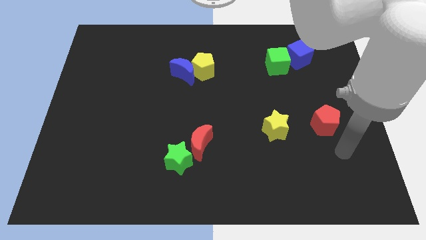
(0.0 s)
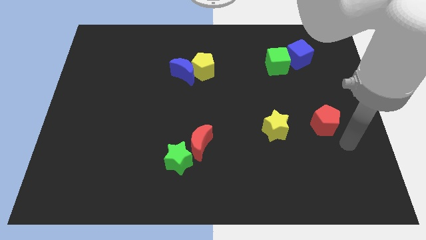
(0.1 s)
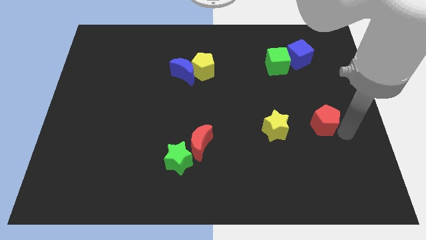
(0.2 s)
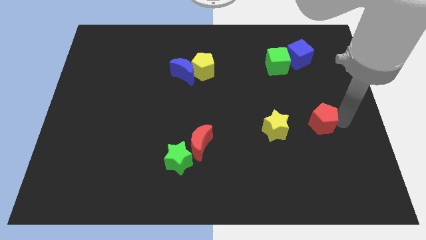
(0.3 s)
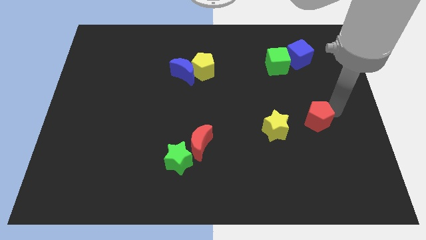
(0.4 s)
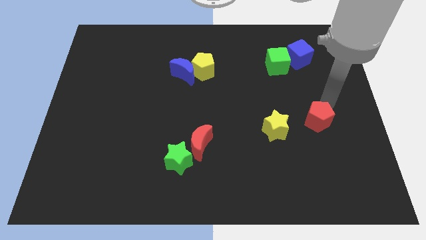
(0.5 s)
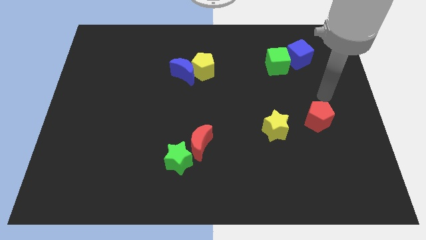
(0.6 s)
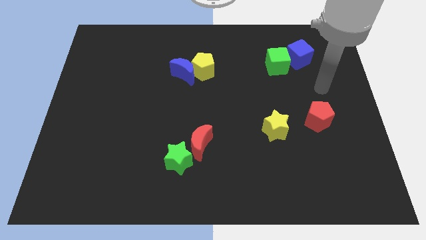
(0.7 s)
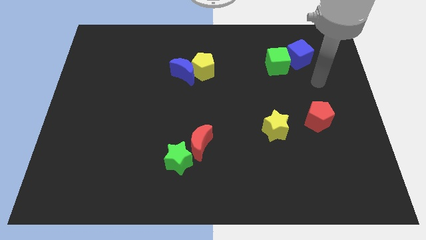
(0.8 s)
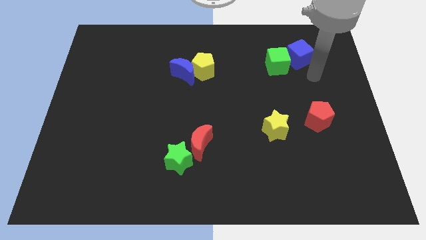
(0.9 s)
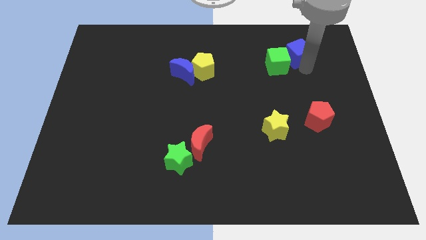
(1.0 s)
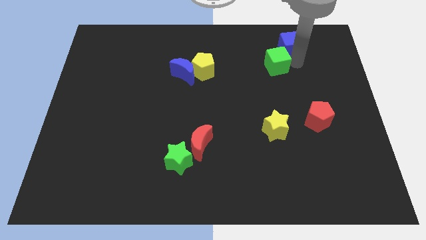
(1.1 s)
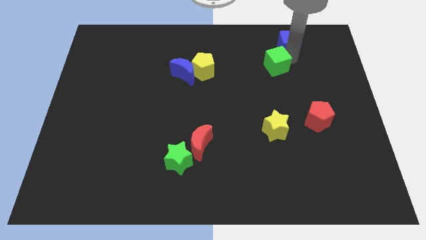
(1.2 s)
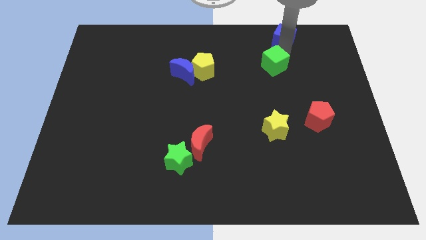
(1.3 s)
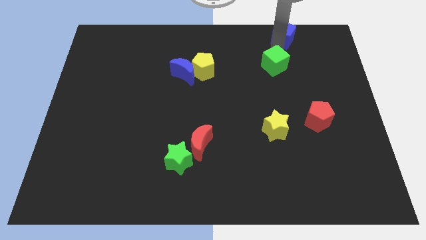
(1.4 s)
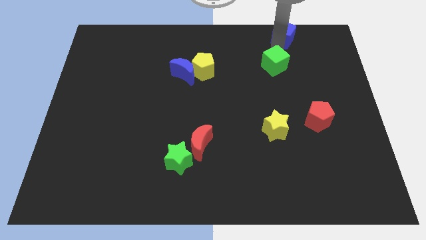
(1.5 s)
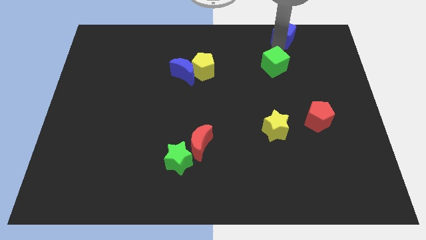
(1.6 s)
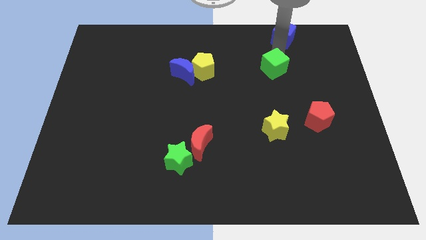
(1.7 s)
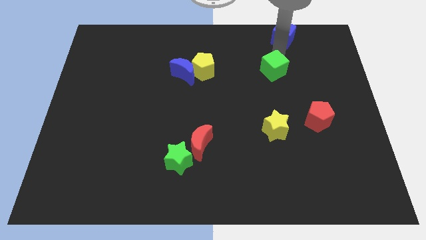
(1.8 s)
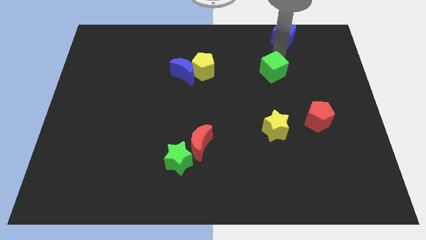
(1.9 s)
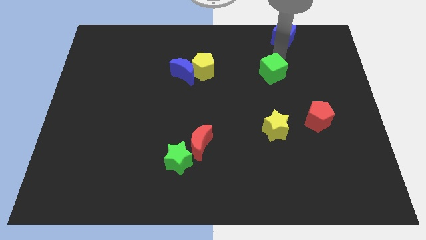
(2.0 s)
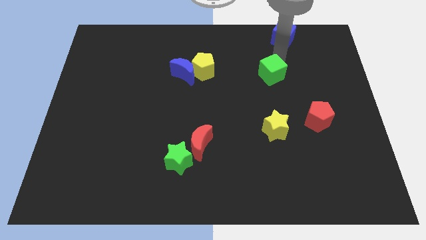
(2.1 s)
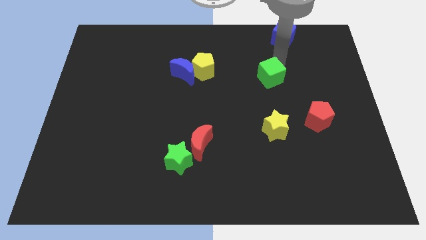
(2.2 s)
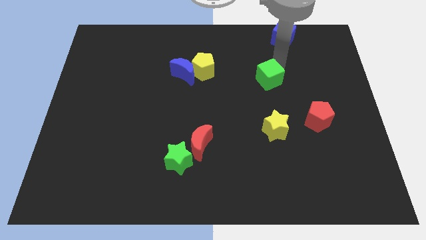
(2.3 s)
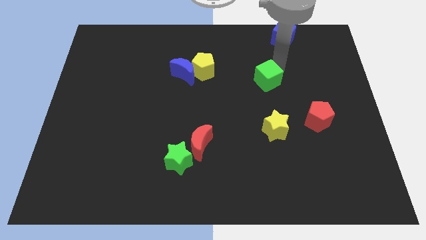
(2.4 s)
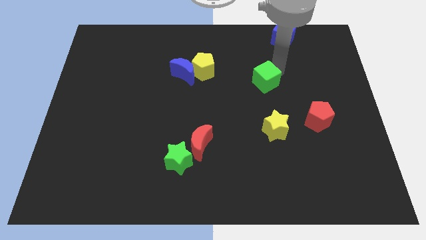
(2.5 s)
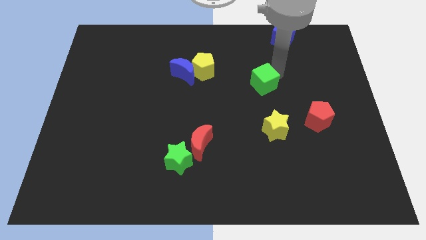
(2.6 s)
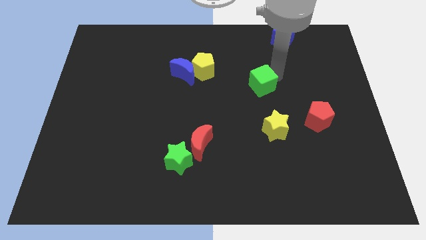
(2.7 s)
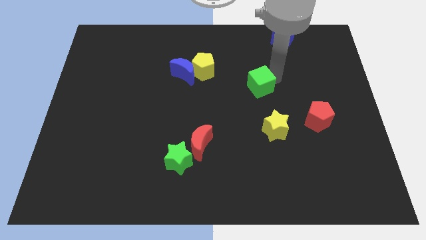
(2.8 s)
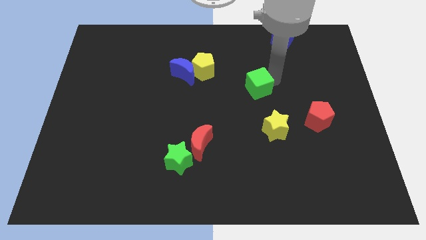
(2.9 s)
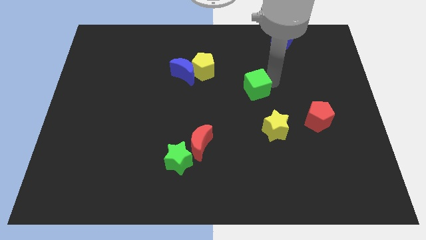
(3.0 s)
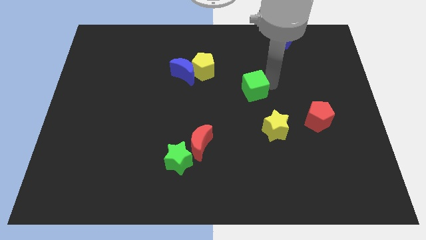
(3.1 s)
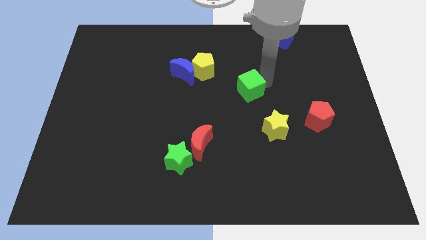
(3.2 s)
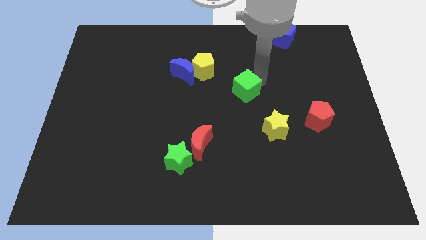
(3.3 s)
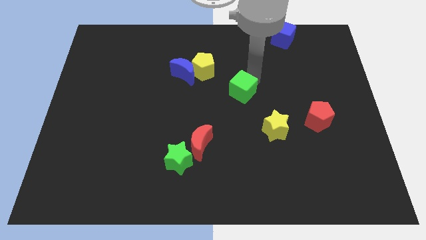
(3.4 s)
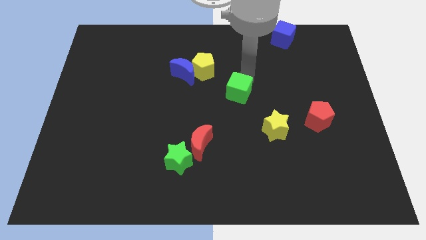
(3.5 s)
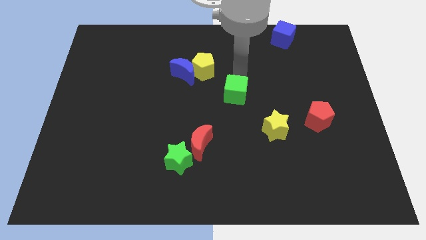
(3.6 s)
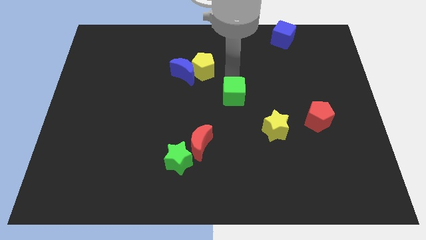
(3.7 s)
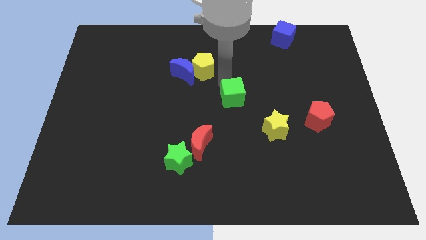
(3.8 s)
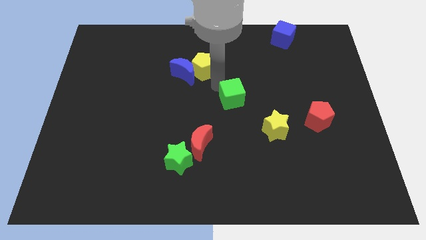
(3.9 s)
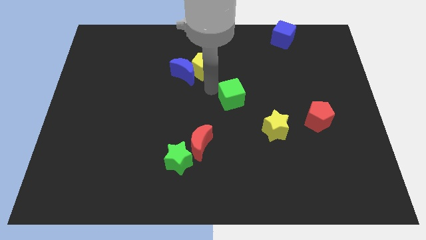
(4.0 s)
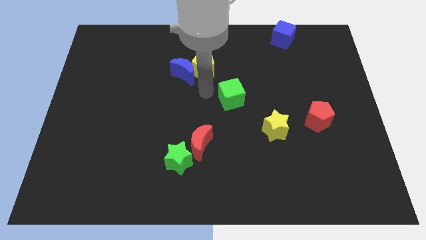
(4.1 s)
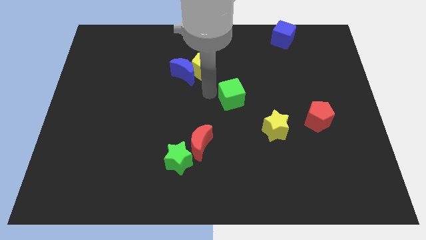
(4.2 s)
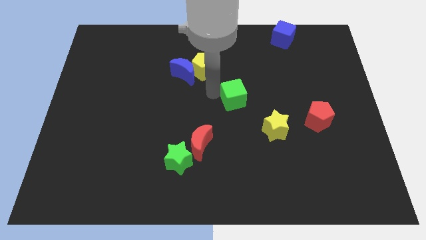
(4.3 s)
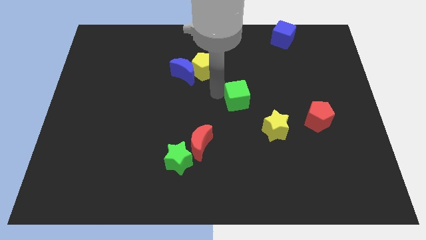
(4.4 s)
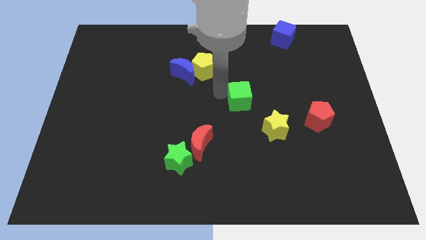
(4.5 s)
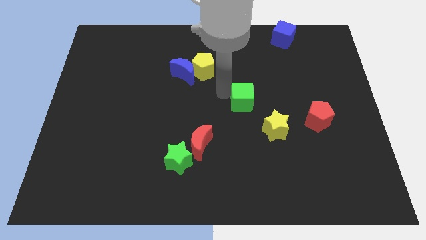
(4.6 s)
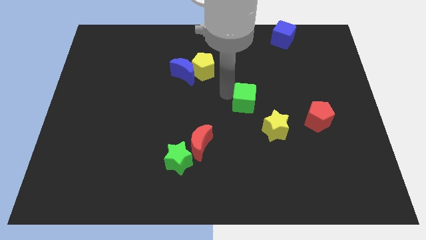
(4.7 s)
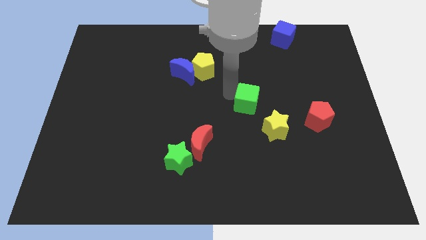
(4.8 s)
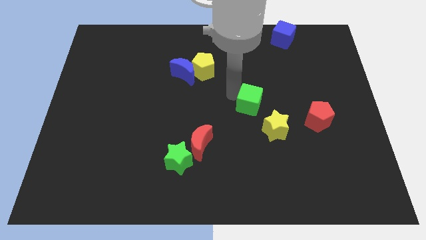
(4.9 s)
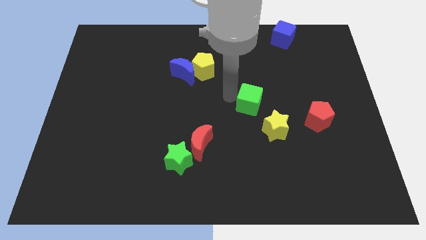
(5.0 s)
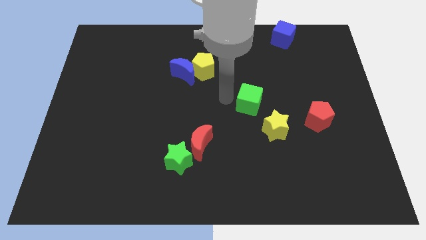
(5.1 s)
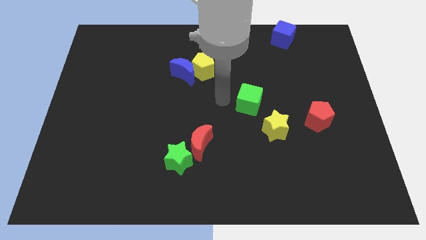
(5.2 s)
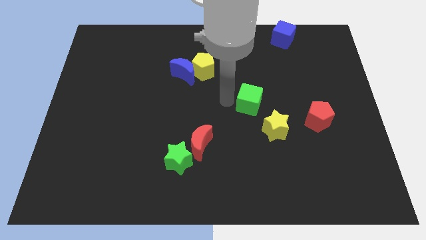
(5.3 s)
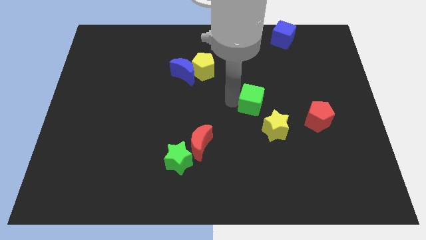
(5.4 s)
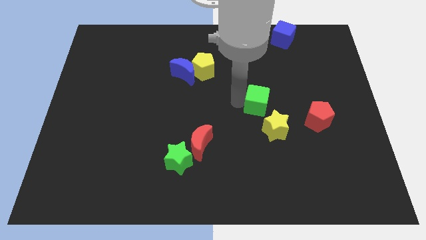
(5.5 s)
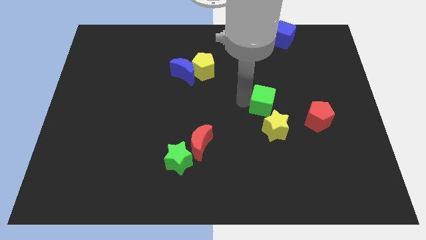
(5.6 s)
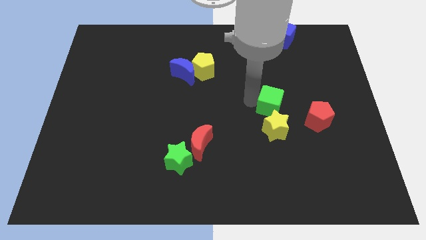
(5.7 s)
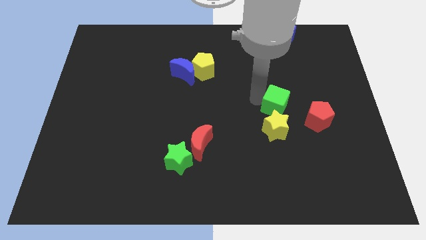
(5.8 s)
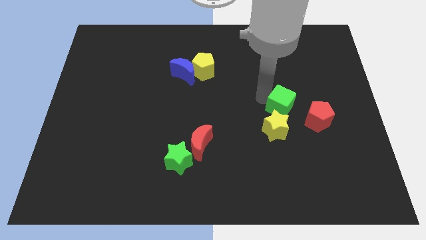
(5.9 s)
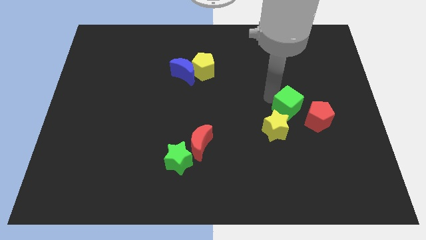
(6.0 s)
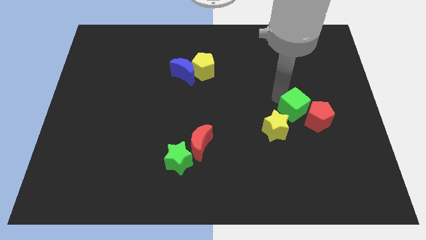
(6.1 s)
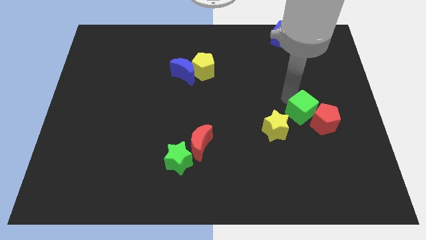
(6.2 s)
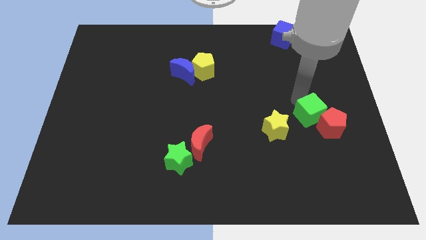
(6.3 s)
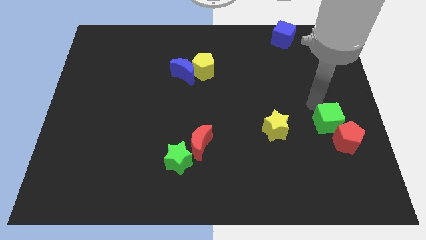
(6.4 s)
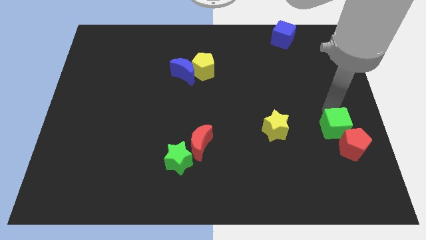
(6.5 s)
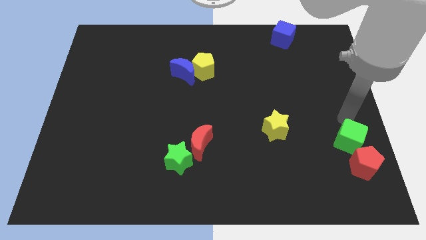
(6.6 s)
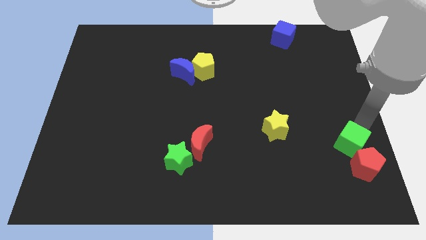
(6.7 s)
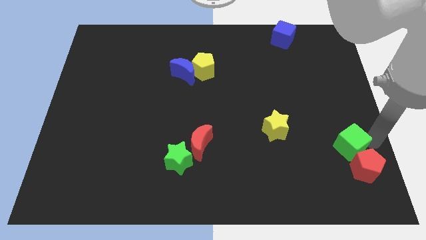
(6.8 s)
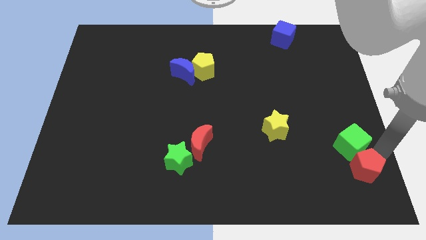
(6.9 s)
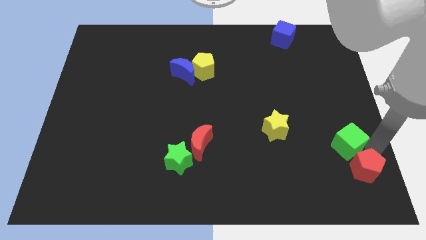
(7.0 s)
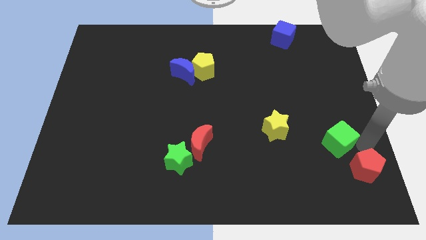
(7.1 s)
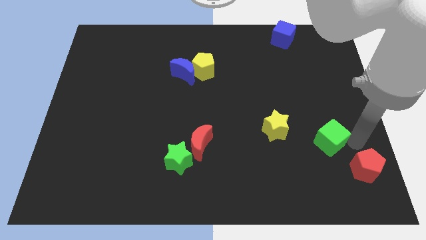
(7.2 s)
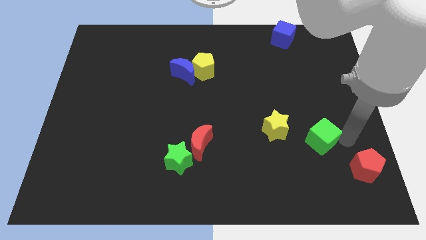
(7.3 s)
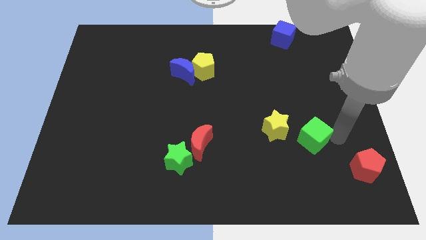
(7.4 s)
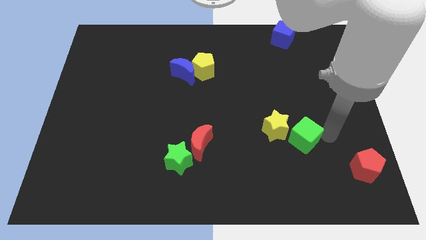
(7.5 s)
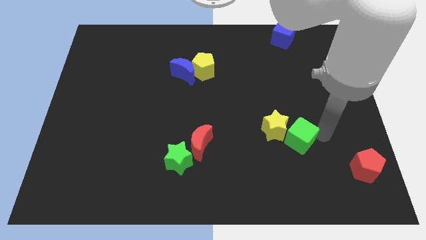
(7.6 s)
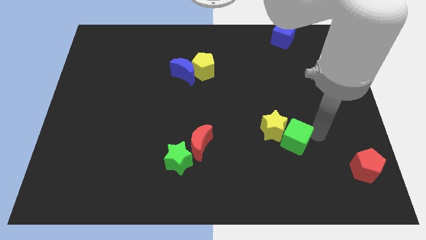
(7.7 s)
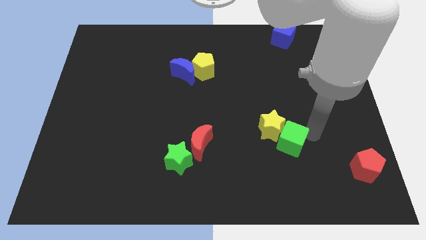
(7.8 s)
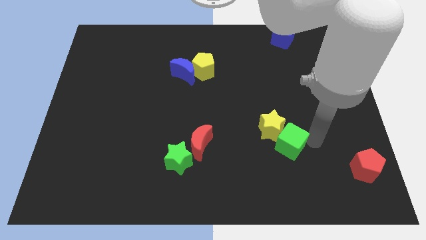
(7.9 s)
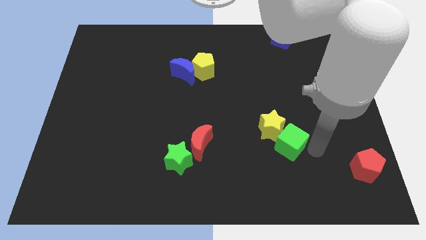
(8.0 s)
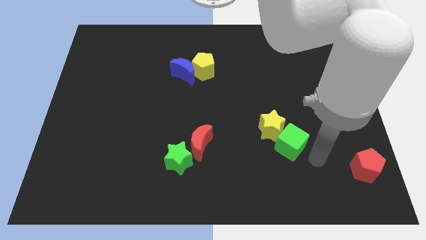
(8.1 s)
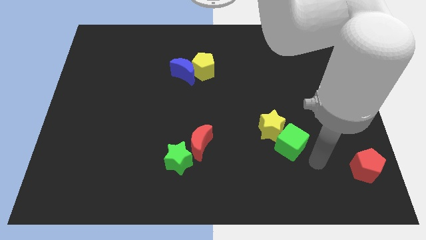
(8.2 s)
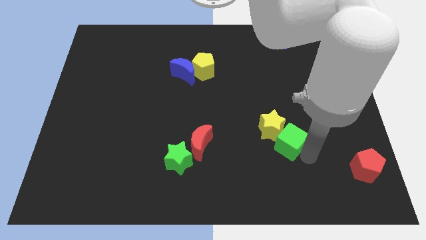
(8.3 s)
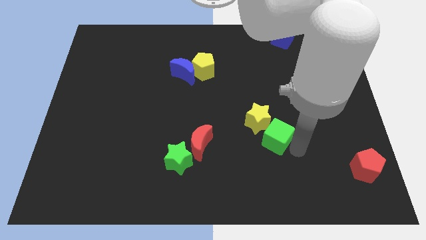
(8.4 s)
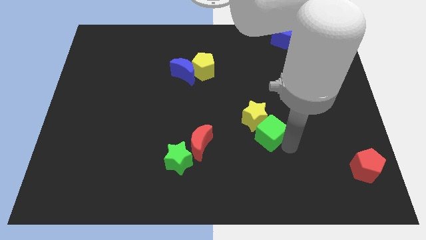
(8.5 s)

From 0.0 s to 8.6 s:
put the green cube to the right of the red moon
